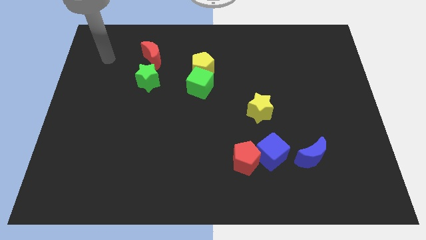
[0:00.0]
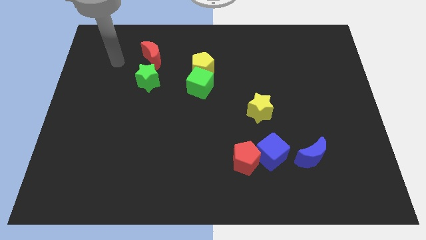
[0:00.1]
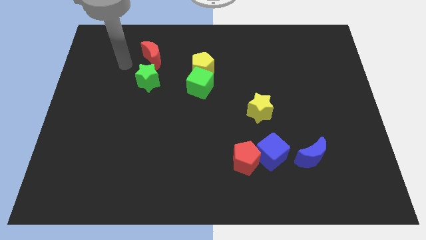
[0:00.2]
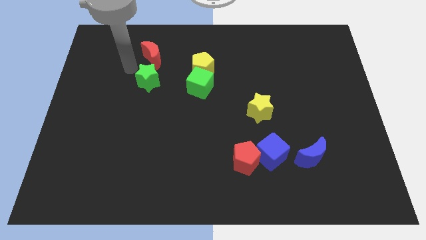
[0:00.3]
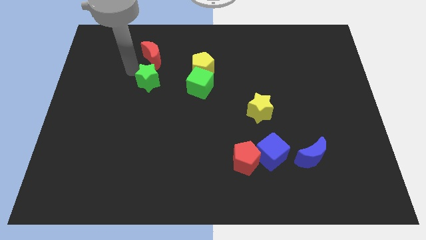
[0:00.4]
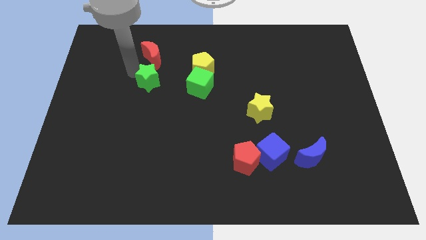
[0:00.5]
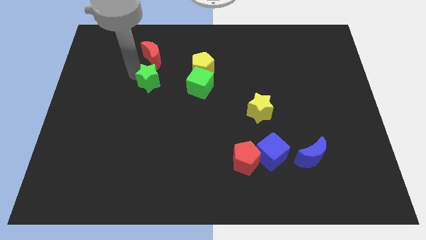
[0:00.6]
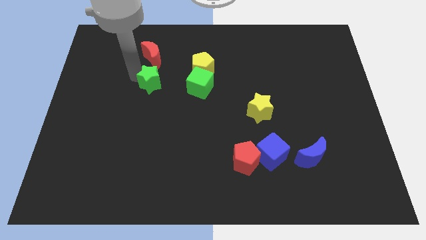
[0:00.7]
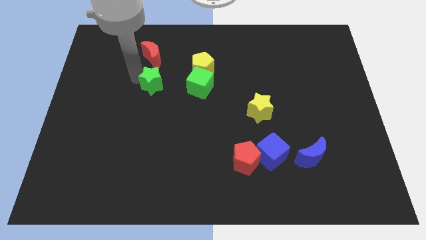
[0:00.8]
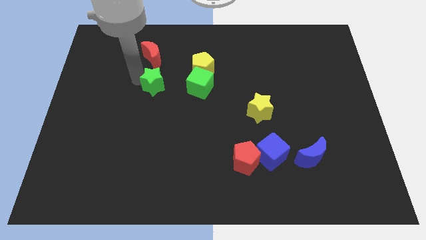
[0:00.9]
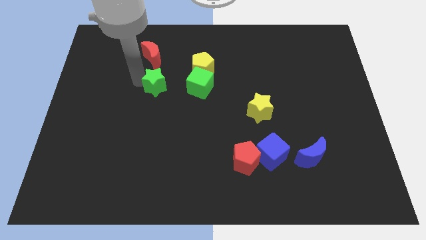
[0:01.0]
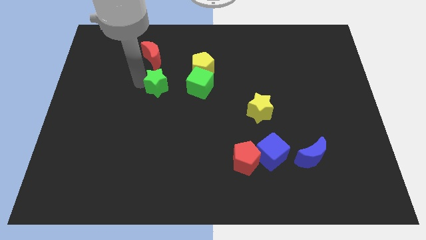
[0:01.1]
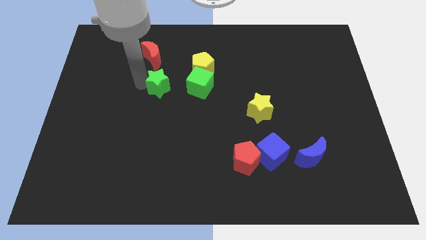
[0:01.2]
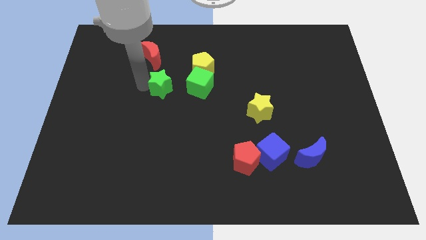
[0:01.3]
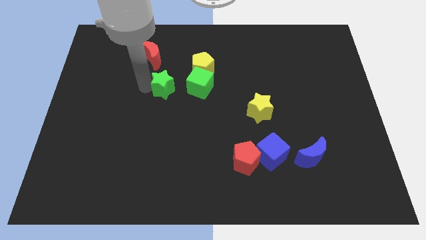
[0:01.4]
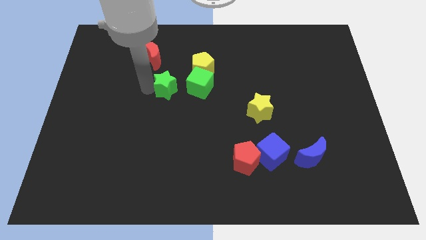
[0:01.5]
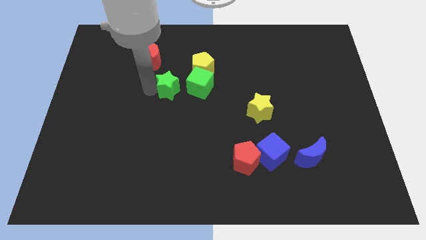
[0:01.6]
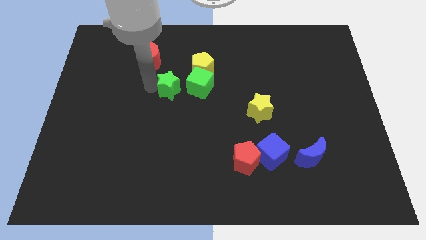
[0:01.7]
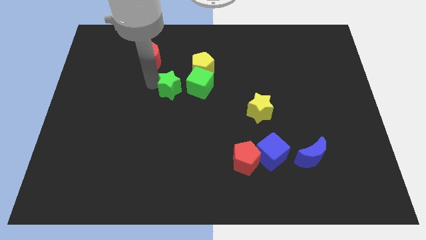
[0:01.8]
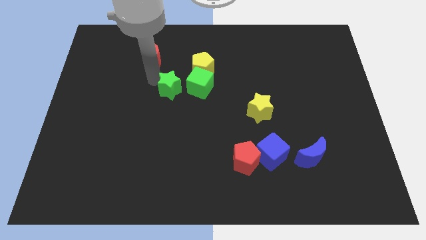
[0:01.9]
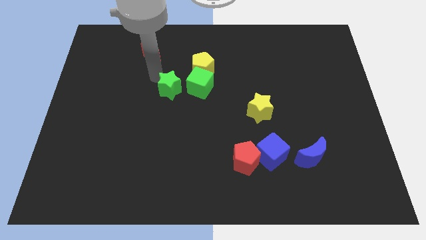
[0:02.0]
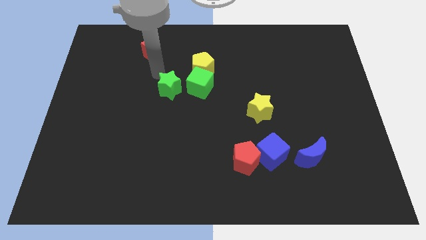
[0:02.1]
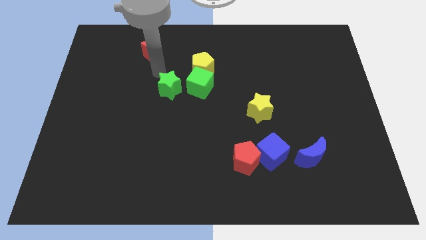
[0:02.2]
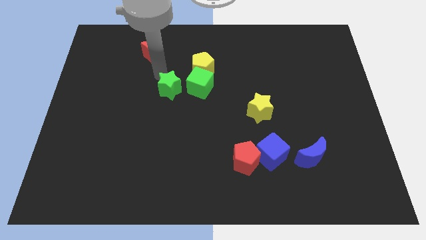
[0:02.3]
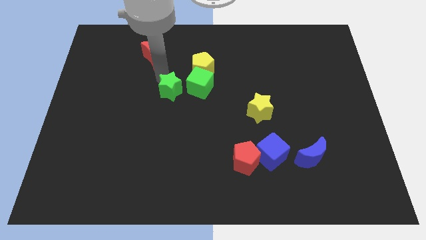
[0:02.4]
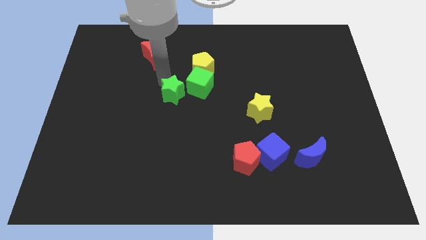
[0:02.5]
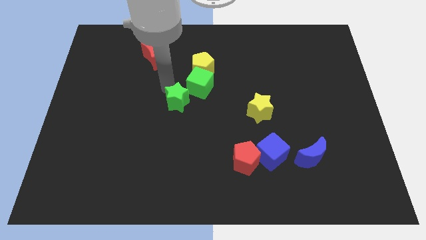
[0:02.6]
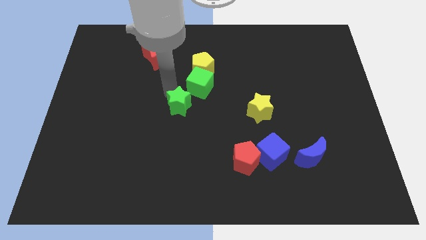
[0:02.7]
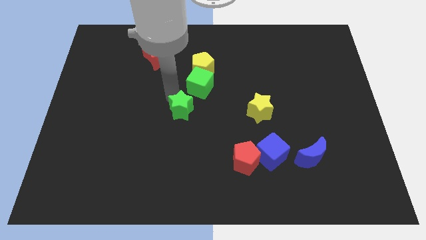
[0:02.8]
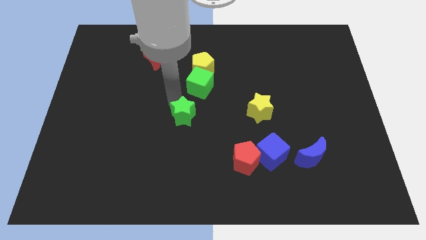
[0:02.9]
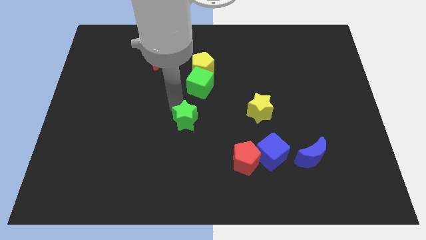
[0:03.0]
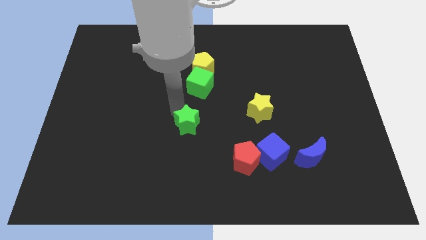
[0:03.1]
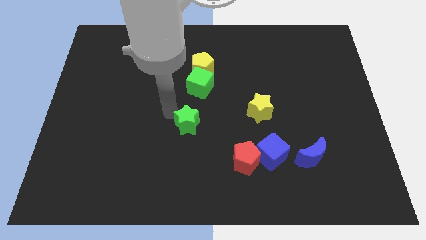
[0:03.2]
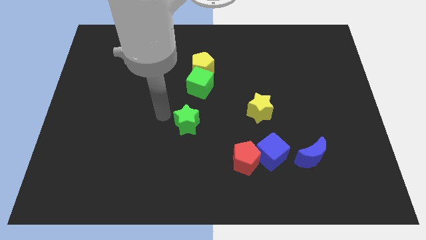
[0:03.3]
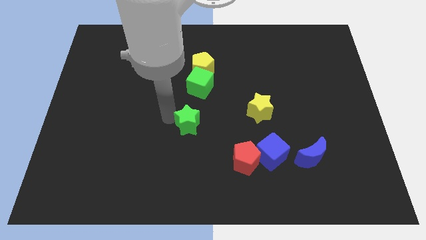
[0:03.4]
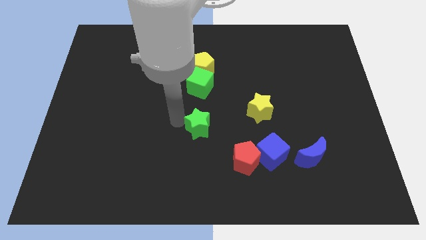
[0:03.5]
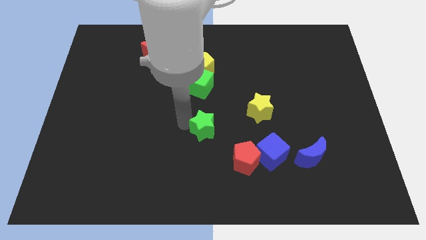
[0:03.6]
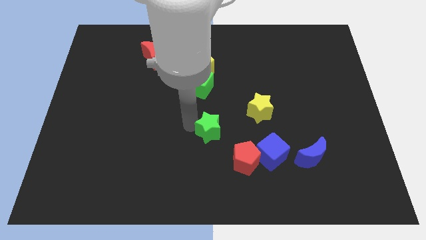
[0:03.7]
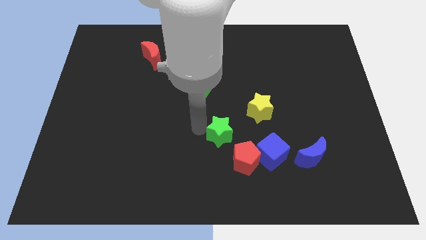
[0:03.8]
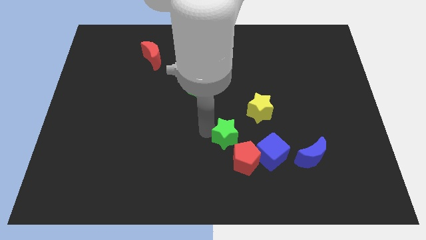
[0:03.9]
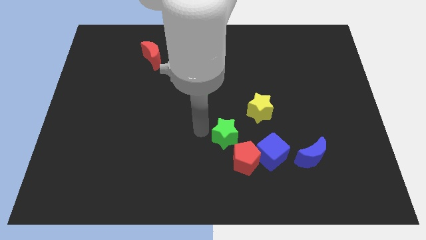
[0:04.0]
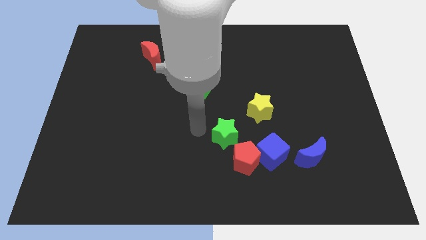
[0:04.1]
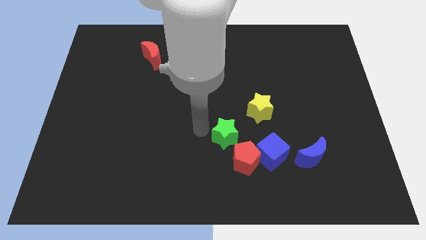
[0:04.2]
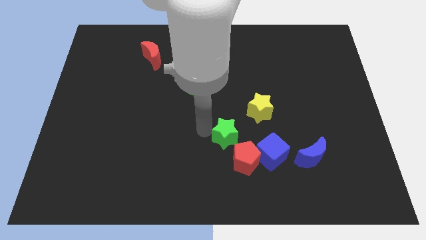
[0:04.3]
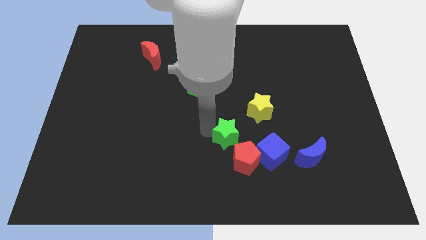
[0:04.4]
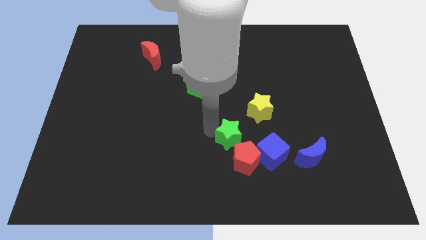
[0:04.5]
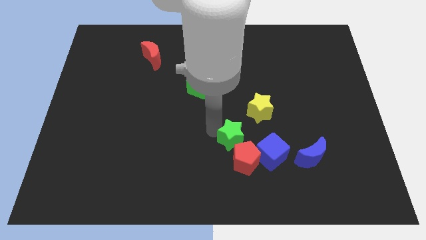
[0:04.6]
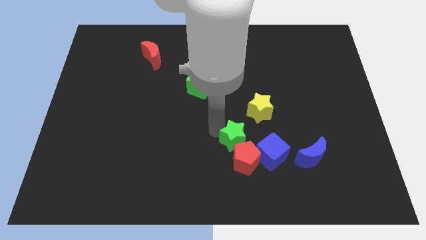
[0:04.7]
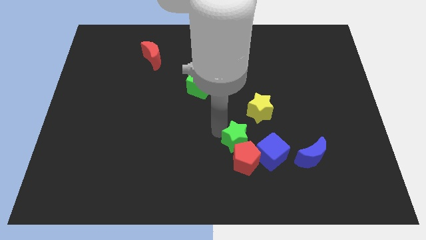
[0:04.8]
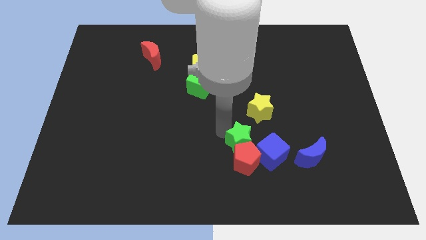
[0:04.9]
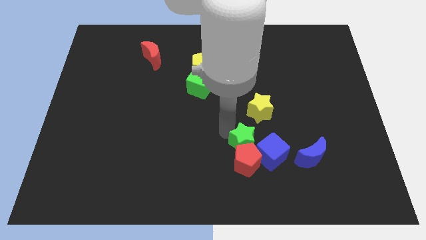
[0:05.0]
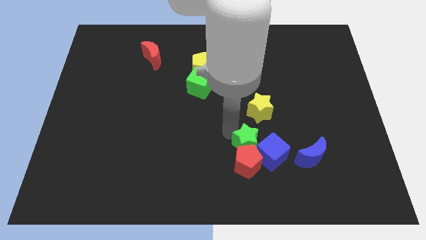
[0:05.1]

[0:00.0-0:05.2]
push the green star towards the blue cube

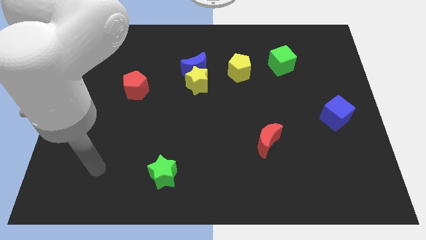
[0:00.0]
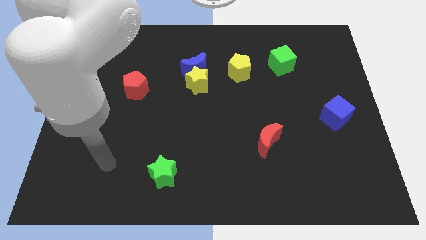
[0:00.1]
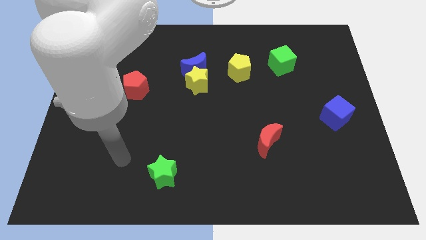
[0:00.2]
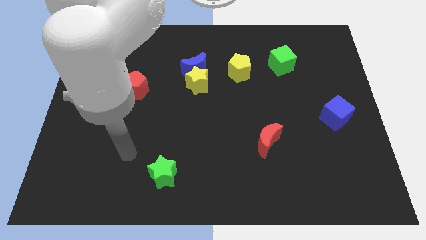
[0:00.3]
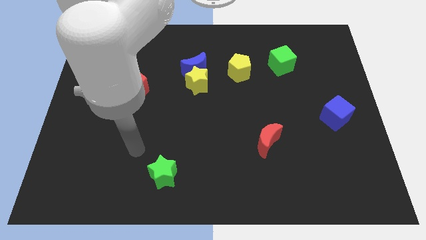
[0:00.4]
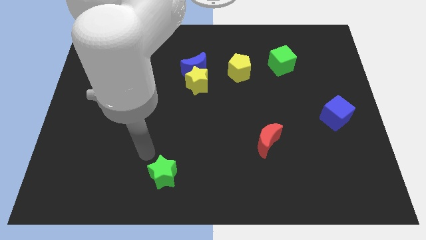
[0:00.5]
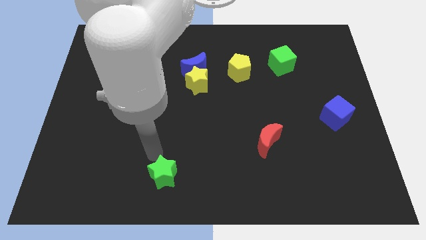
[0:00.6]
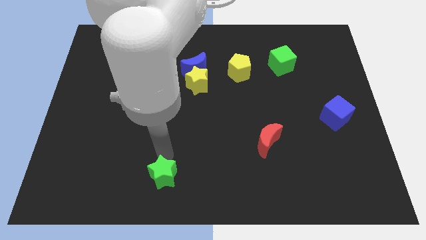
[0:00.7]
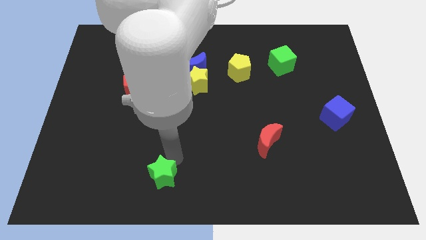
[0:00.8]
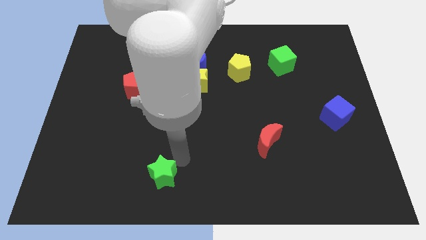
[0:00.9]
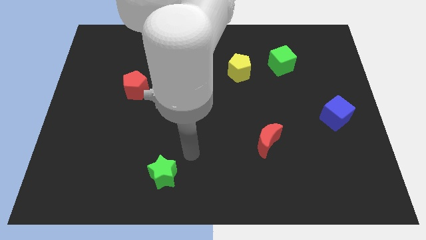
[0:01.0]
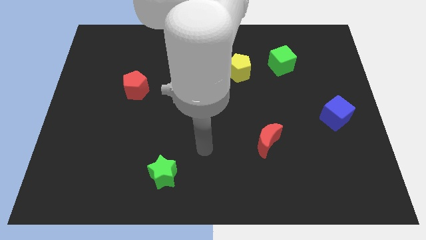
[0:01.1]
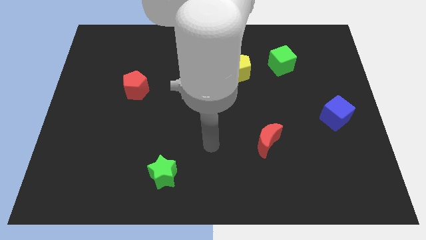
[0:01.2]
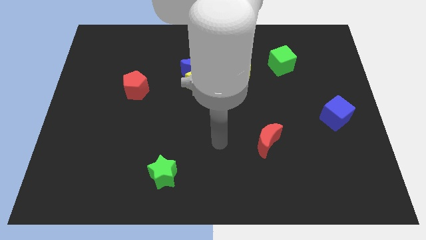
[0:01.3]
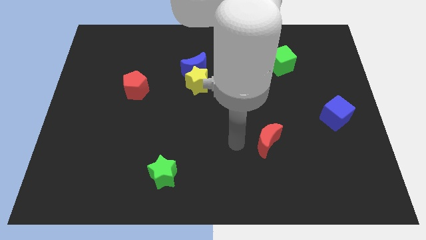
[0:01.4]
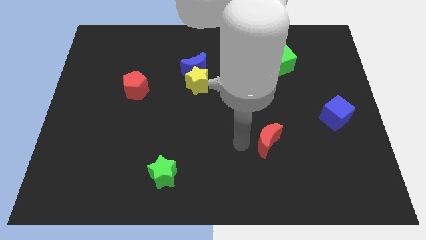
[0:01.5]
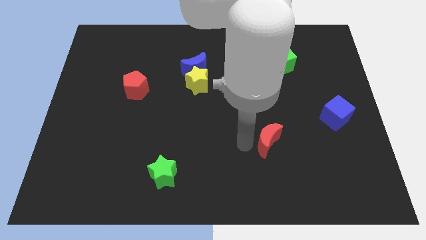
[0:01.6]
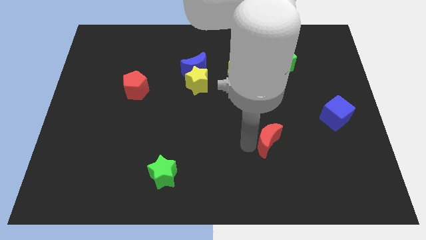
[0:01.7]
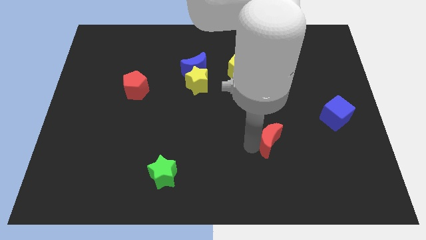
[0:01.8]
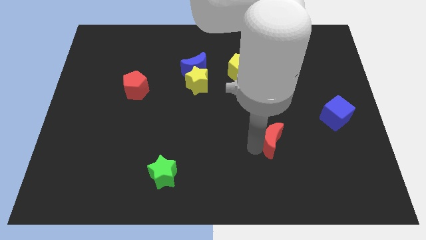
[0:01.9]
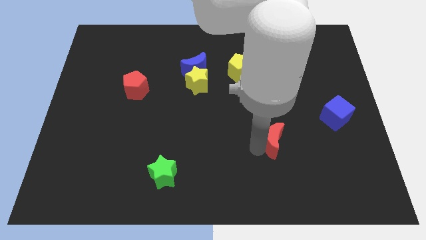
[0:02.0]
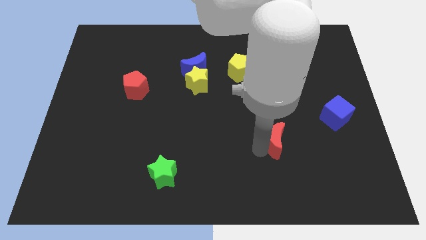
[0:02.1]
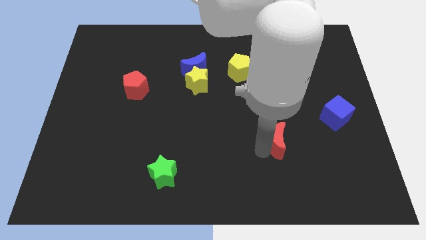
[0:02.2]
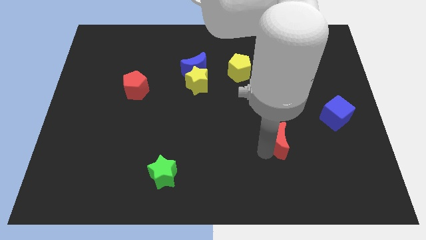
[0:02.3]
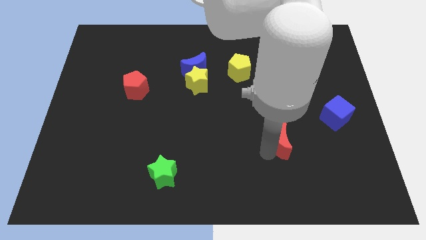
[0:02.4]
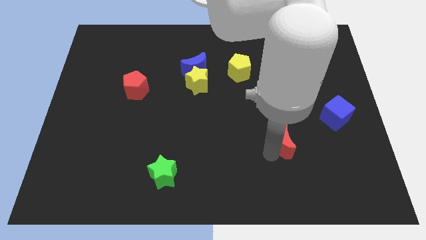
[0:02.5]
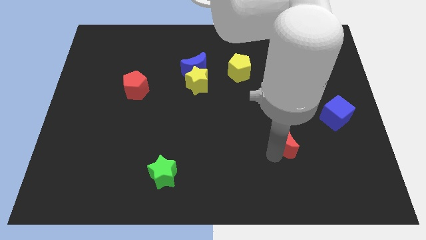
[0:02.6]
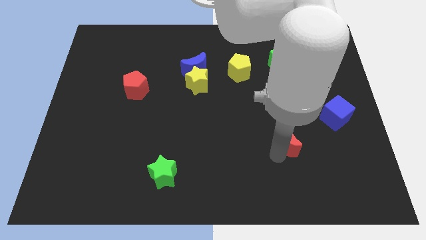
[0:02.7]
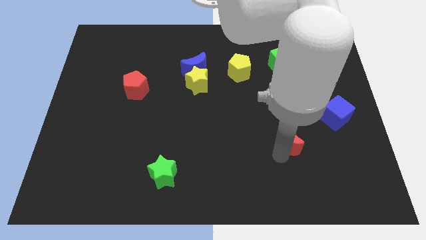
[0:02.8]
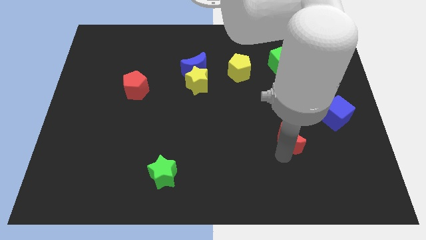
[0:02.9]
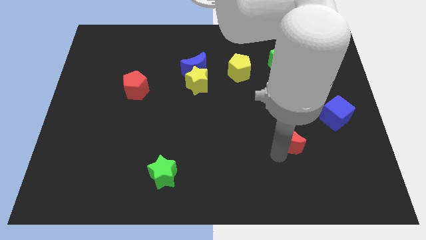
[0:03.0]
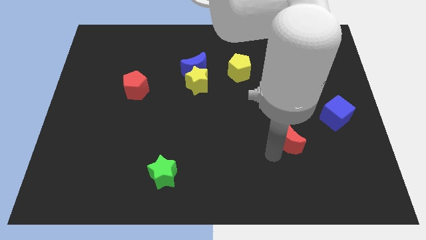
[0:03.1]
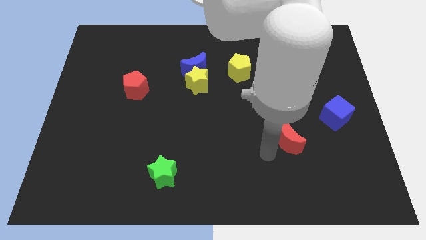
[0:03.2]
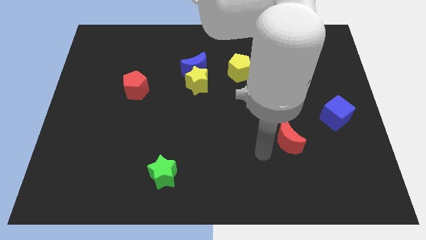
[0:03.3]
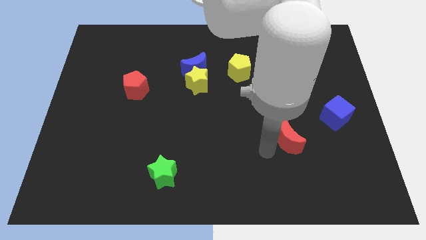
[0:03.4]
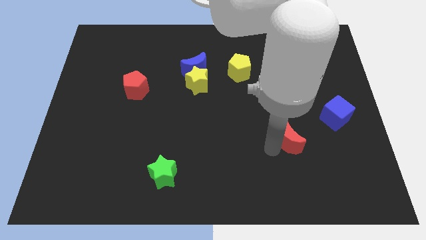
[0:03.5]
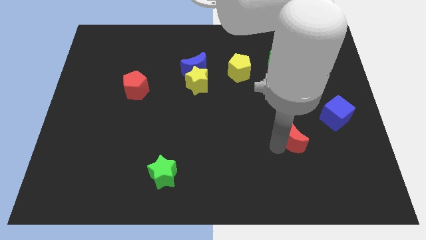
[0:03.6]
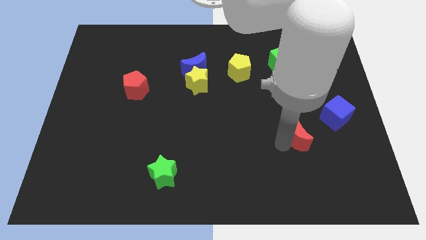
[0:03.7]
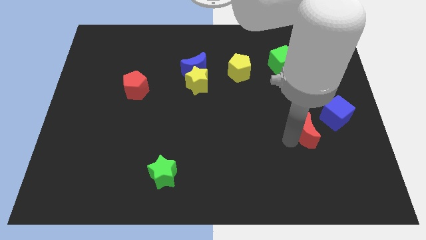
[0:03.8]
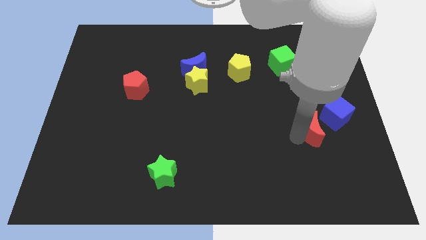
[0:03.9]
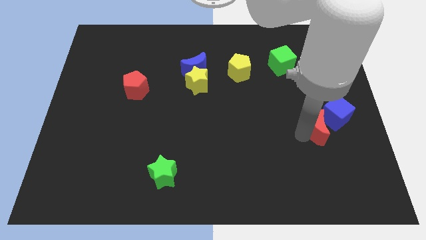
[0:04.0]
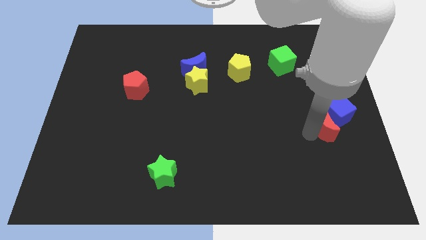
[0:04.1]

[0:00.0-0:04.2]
slide the red moon towards the blue cube
